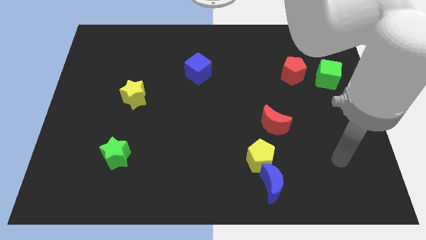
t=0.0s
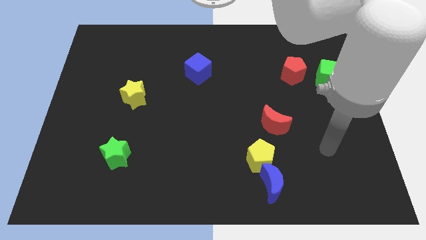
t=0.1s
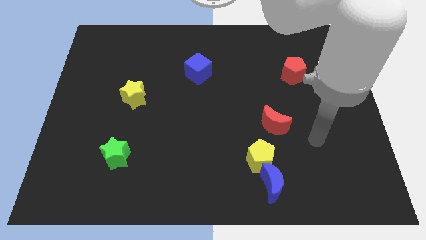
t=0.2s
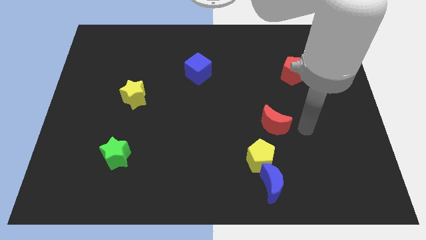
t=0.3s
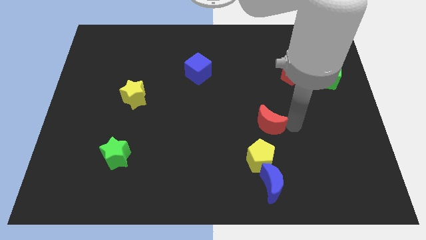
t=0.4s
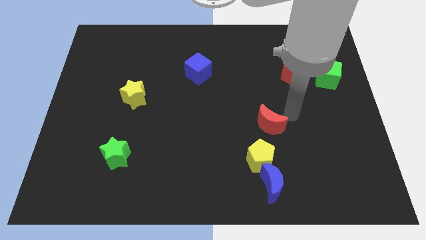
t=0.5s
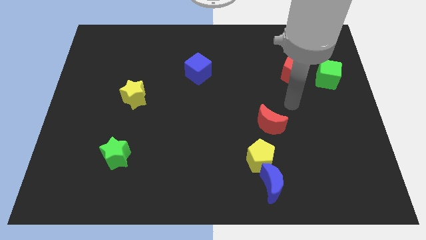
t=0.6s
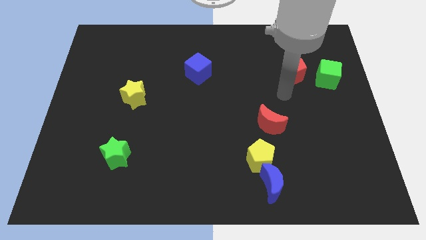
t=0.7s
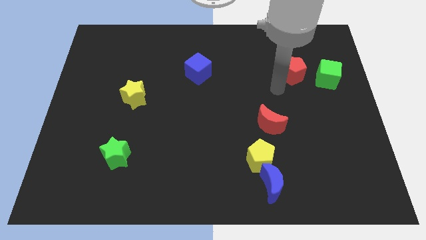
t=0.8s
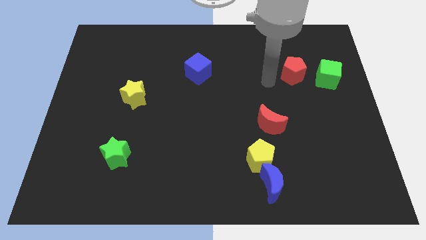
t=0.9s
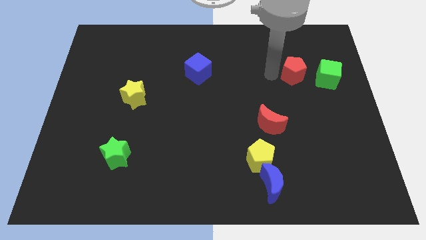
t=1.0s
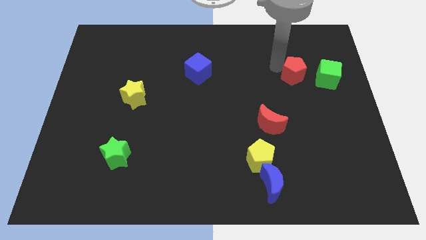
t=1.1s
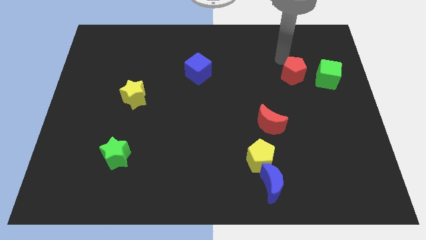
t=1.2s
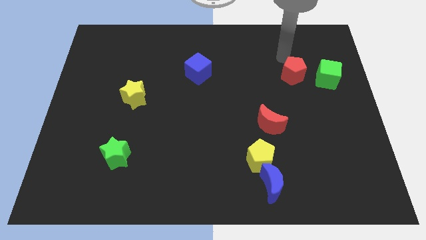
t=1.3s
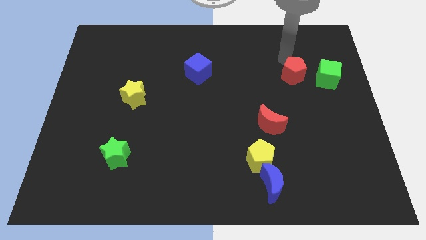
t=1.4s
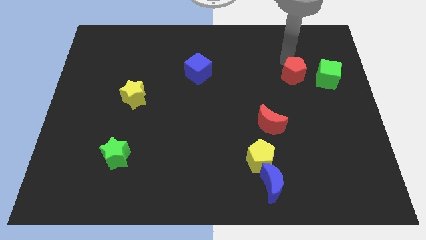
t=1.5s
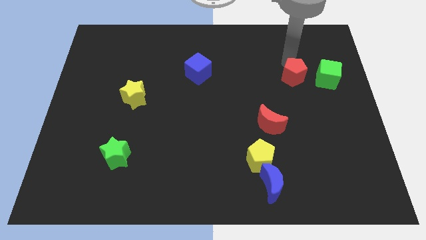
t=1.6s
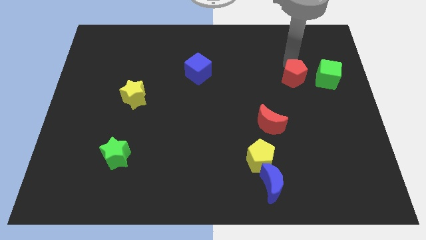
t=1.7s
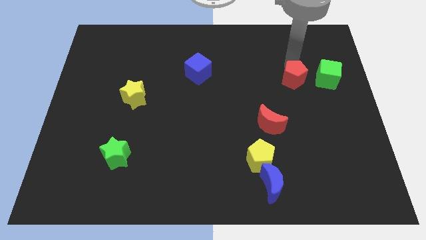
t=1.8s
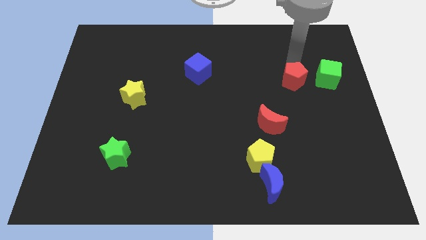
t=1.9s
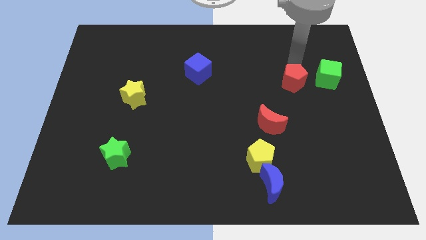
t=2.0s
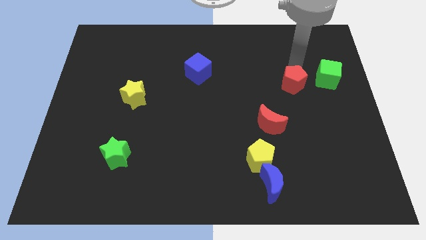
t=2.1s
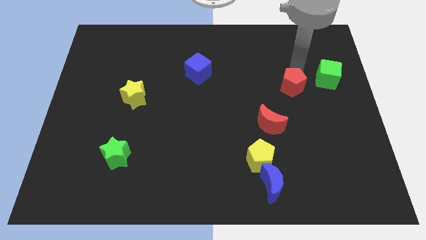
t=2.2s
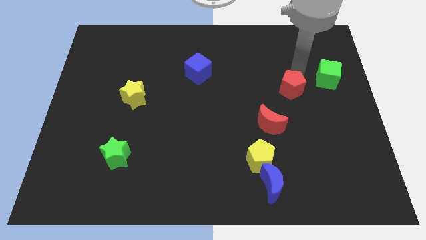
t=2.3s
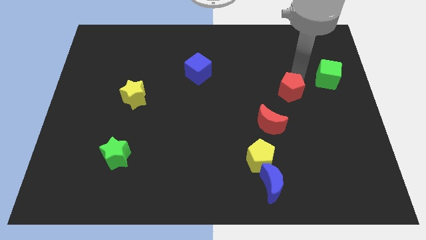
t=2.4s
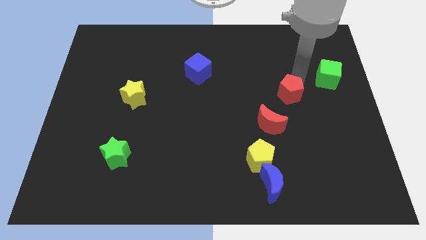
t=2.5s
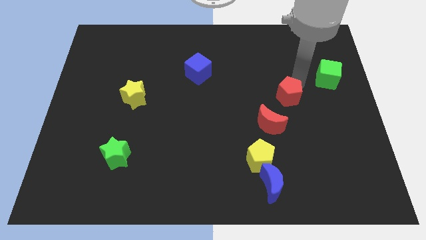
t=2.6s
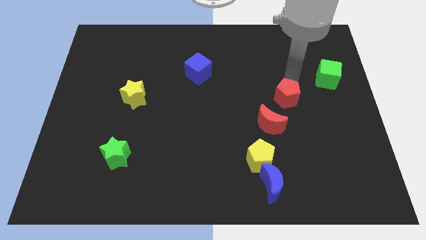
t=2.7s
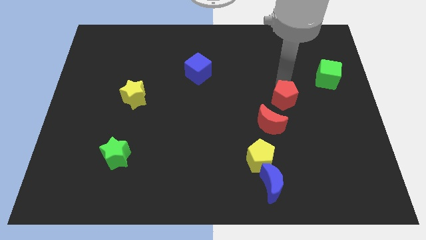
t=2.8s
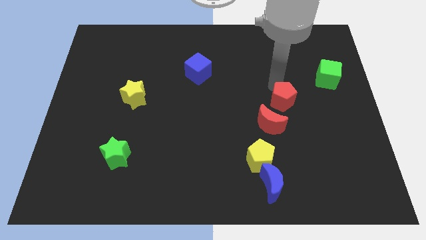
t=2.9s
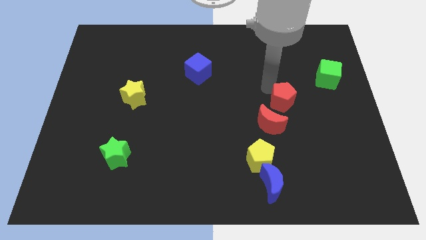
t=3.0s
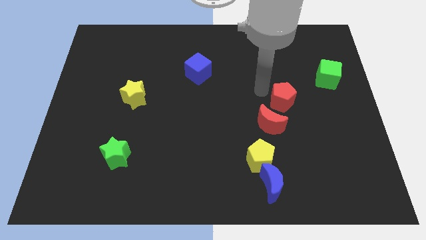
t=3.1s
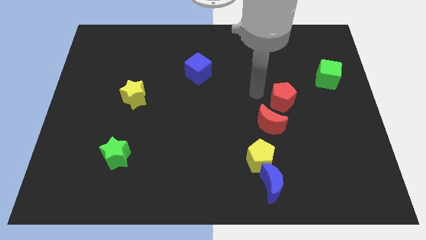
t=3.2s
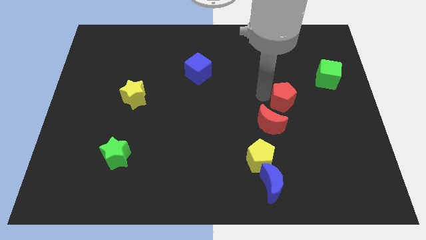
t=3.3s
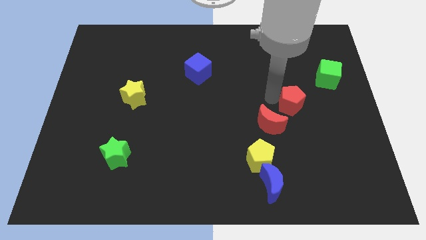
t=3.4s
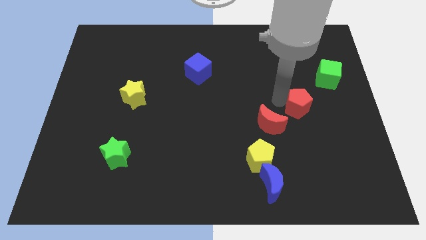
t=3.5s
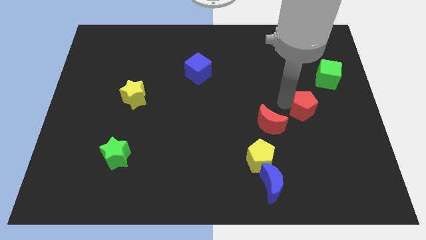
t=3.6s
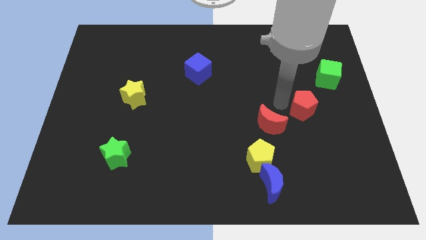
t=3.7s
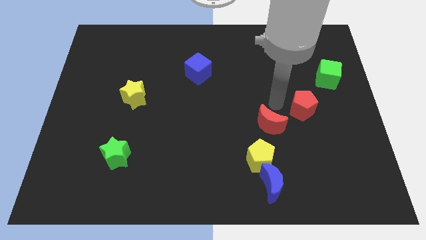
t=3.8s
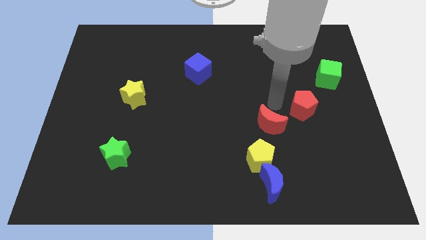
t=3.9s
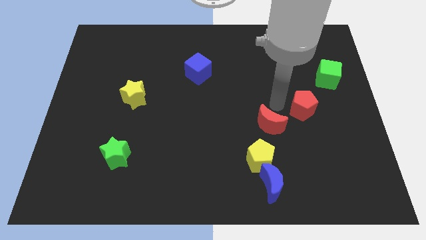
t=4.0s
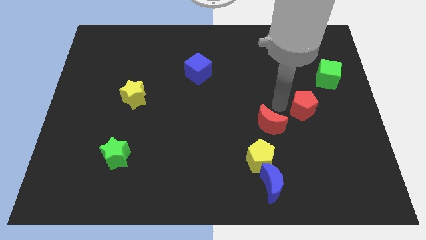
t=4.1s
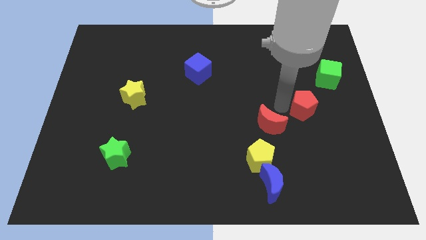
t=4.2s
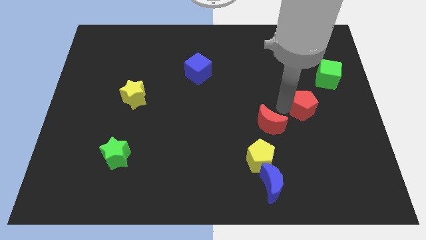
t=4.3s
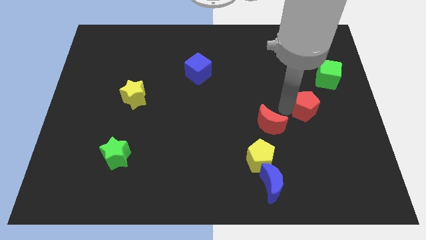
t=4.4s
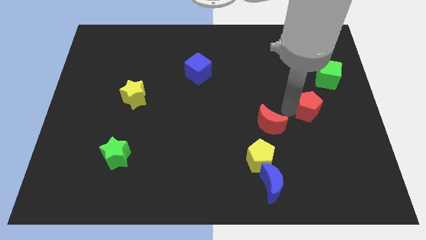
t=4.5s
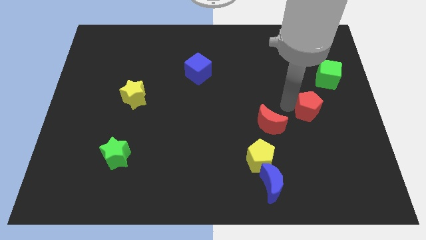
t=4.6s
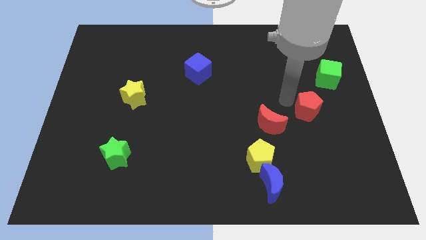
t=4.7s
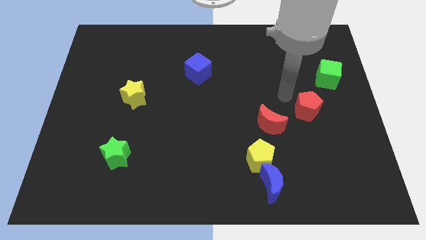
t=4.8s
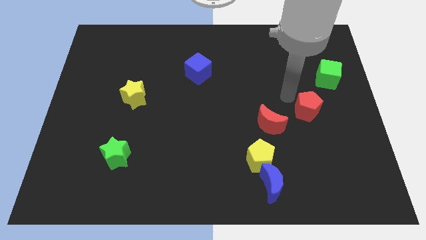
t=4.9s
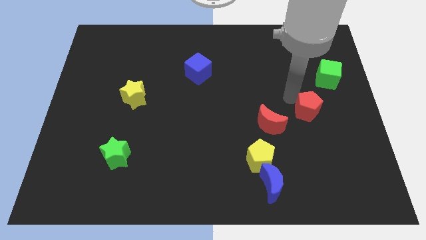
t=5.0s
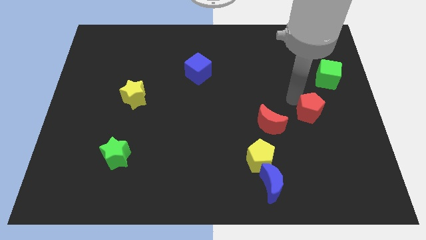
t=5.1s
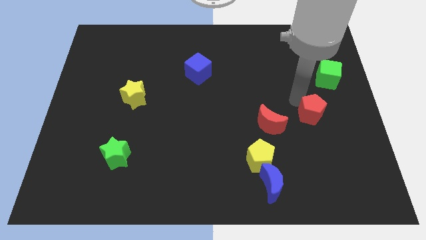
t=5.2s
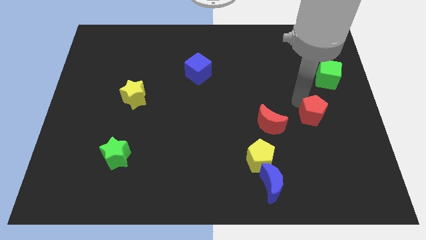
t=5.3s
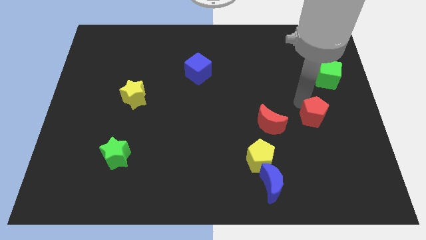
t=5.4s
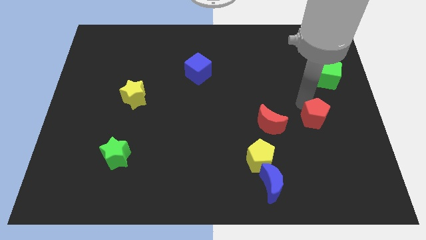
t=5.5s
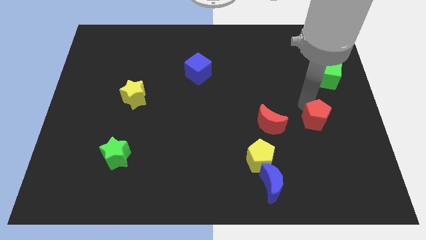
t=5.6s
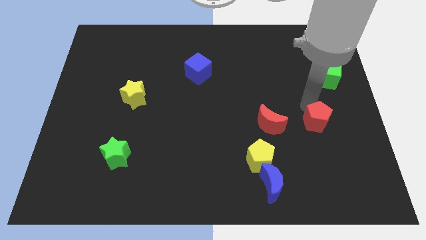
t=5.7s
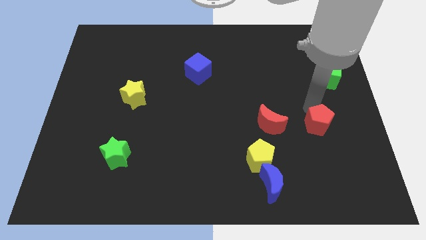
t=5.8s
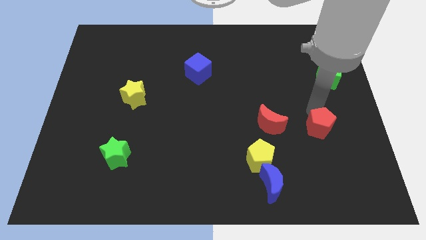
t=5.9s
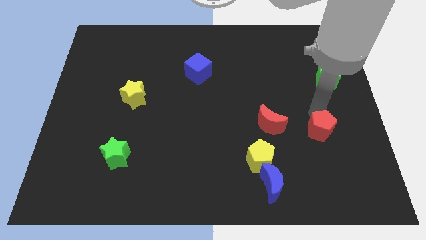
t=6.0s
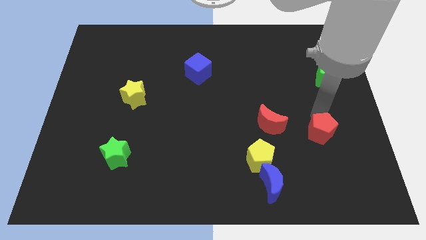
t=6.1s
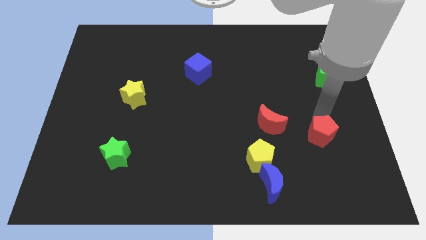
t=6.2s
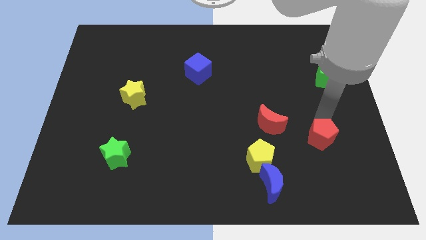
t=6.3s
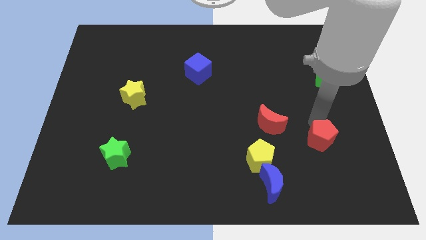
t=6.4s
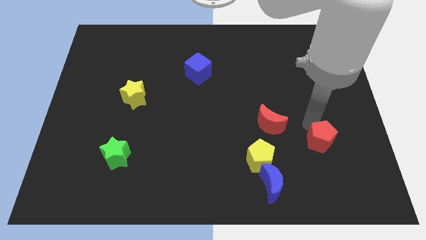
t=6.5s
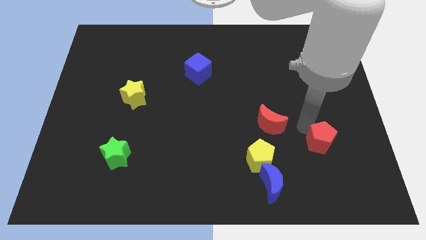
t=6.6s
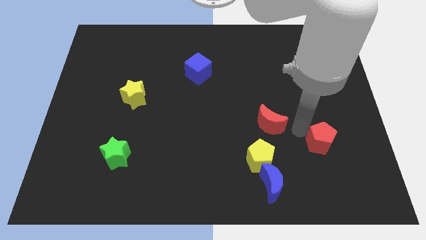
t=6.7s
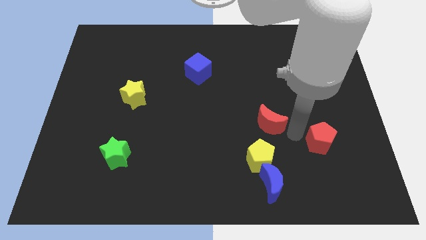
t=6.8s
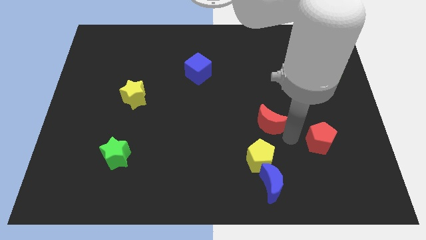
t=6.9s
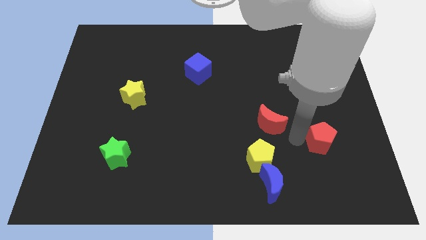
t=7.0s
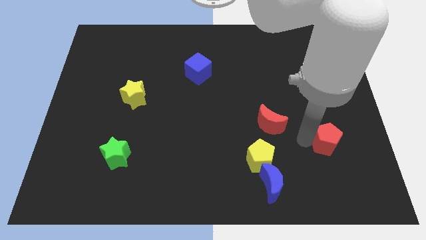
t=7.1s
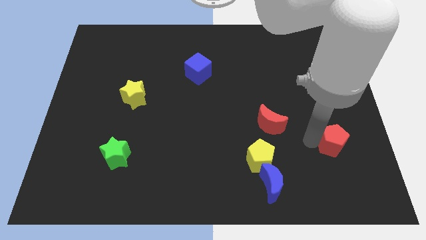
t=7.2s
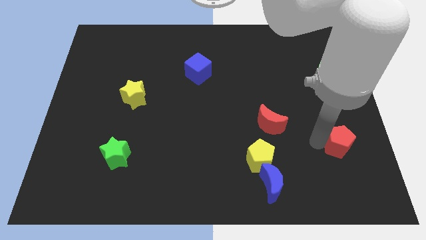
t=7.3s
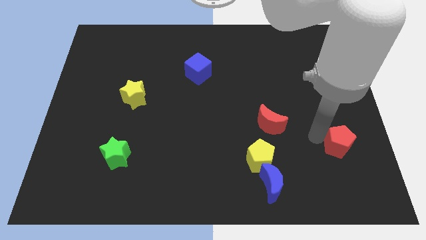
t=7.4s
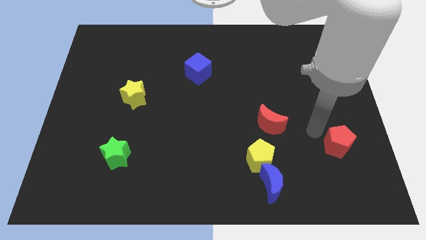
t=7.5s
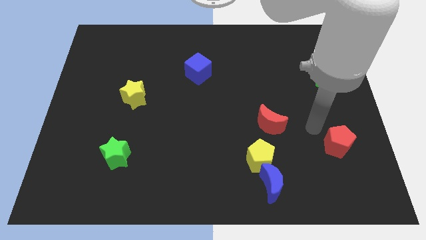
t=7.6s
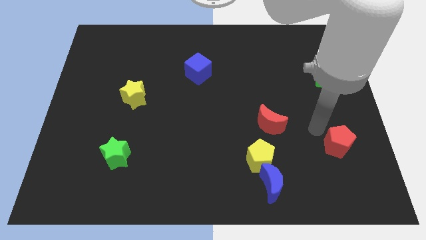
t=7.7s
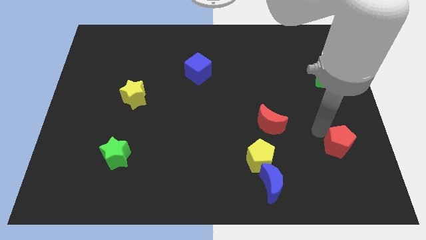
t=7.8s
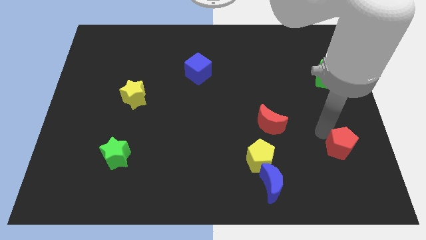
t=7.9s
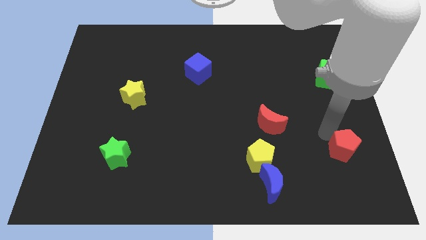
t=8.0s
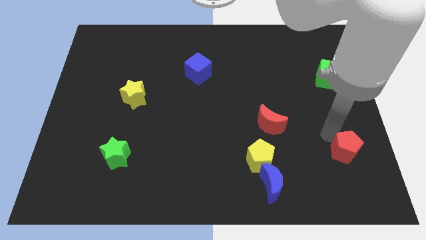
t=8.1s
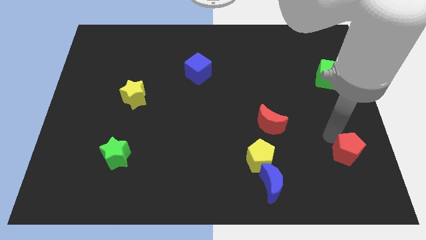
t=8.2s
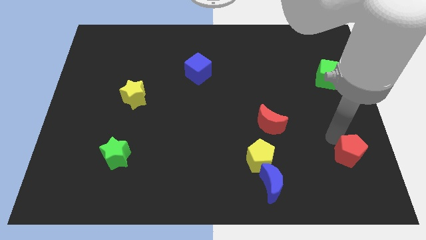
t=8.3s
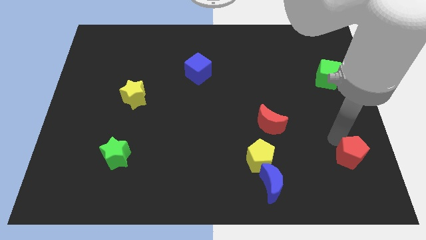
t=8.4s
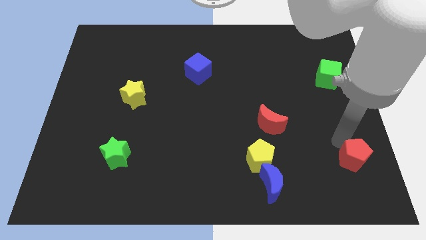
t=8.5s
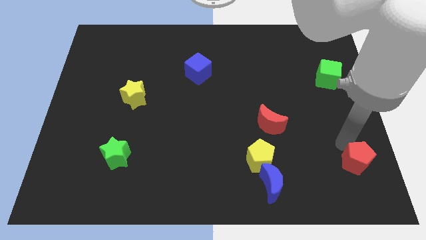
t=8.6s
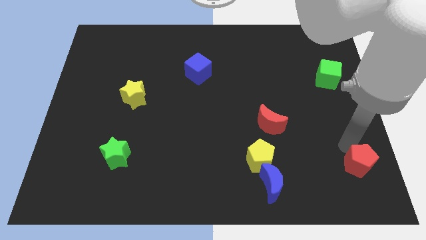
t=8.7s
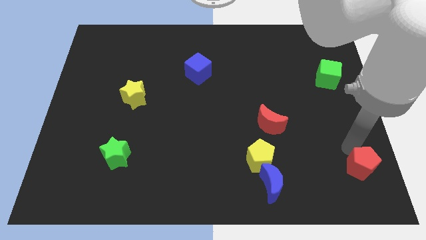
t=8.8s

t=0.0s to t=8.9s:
move the red pentagon to the bottom right
